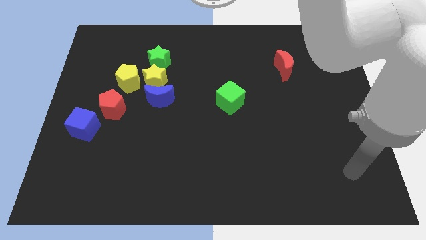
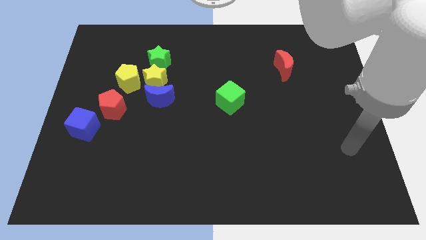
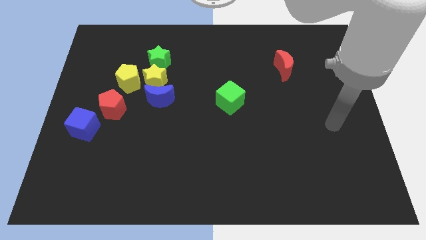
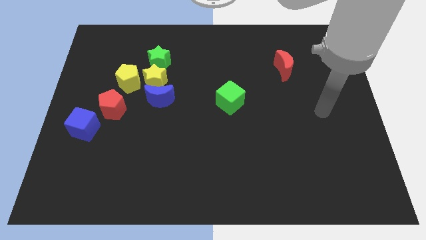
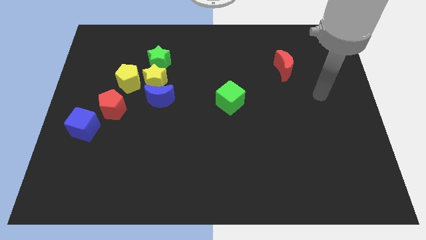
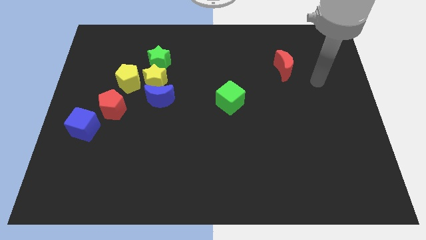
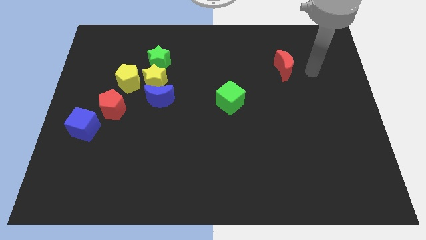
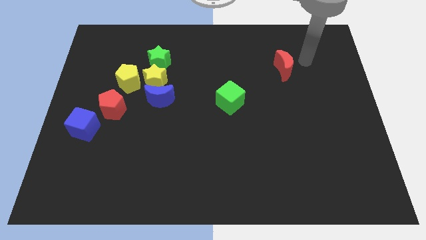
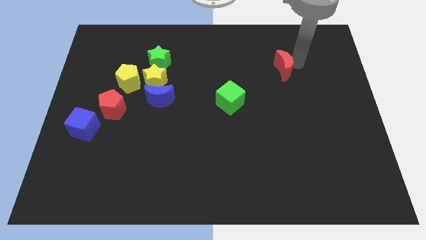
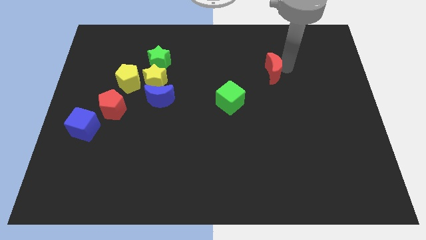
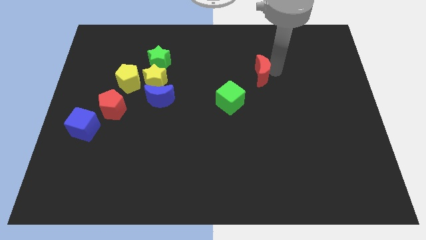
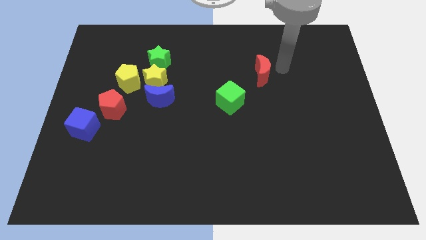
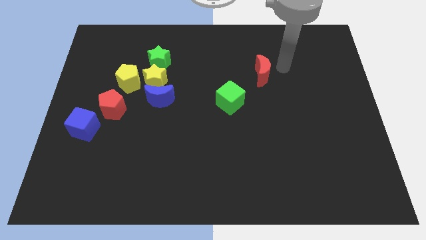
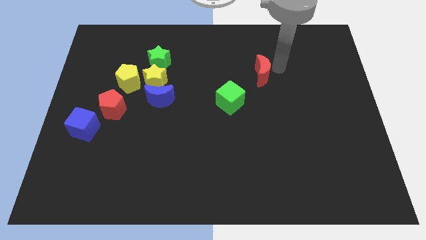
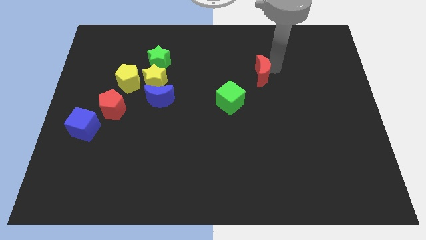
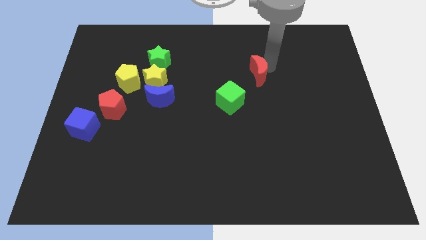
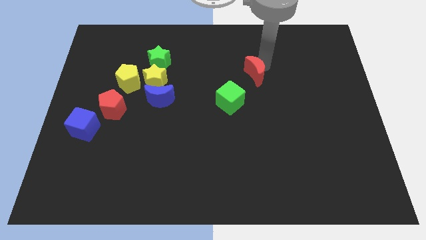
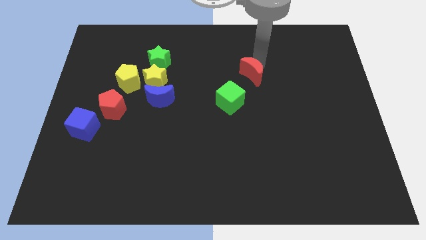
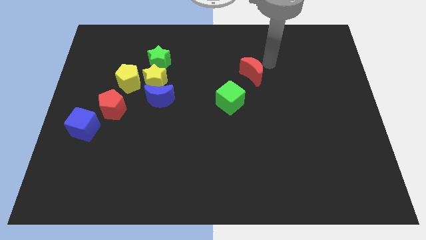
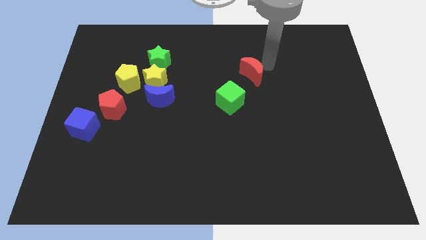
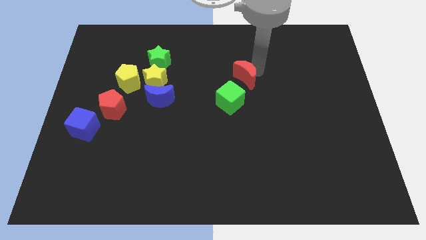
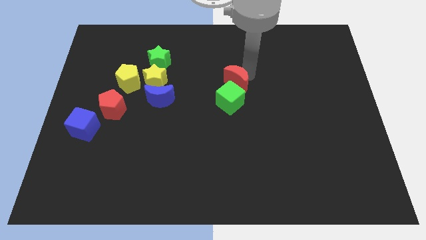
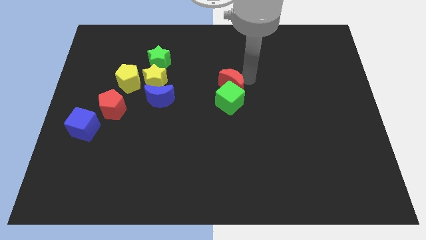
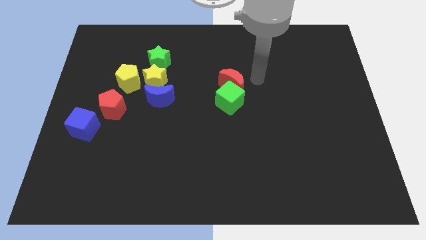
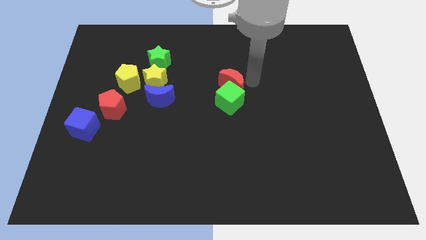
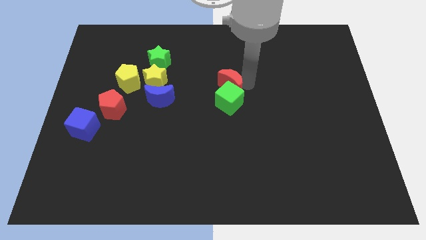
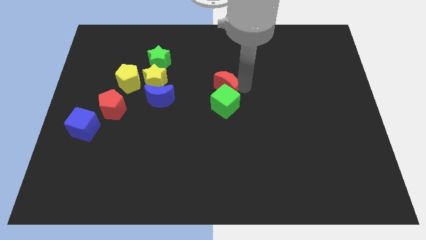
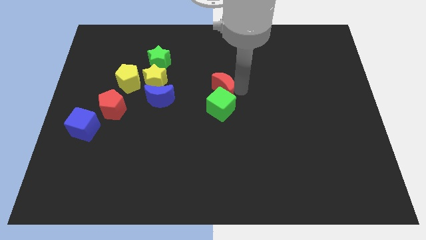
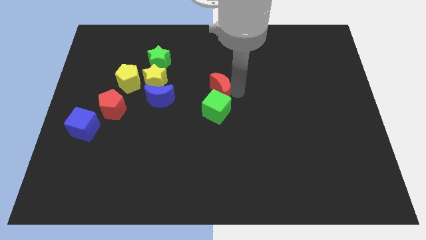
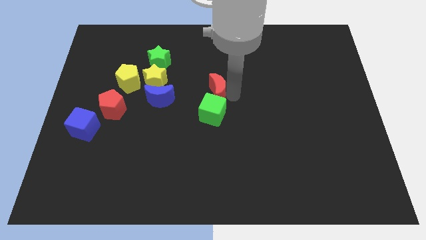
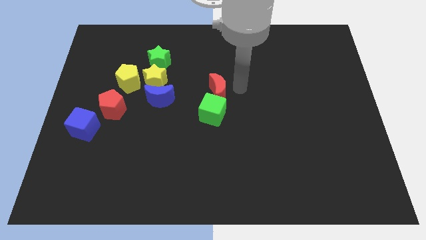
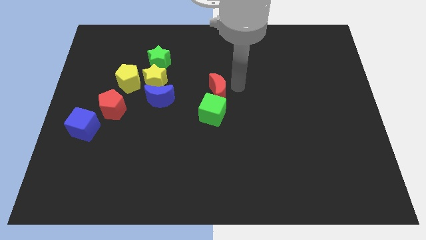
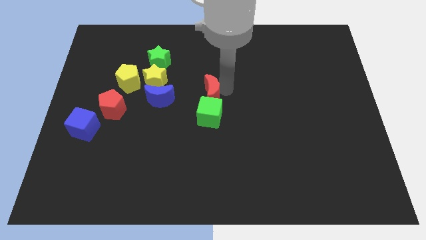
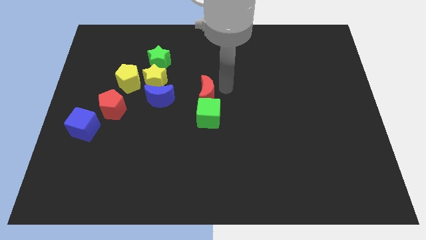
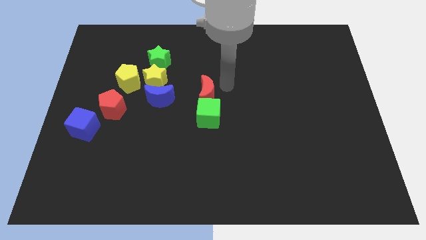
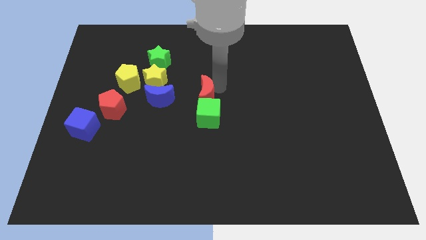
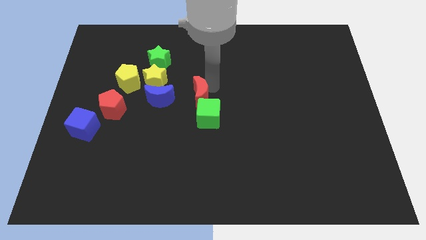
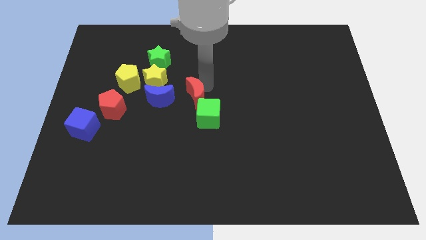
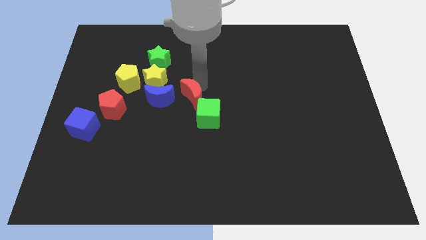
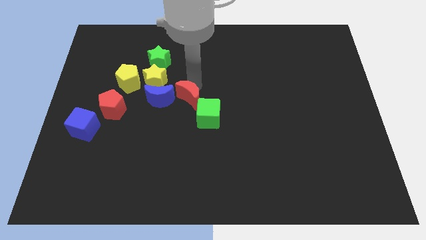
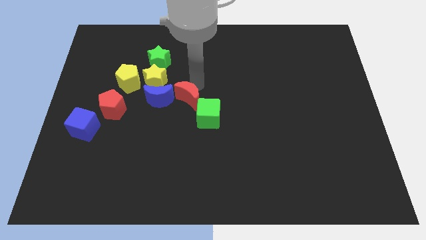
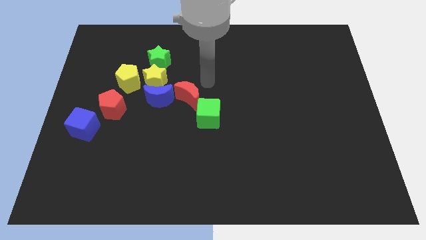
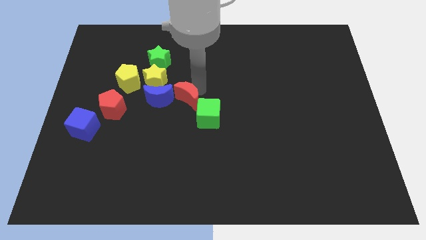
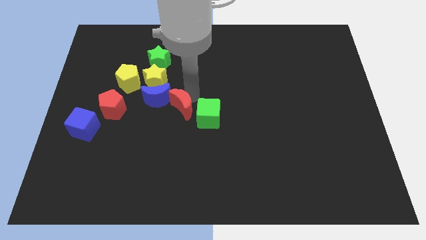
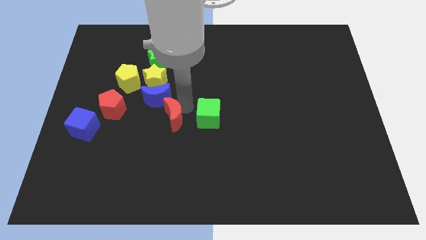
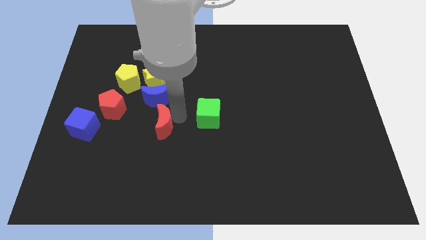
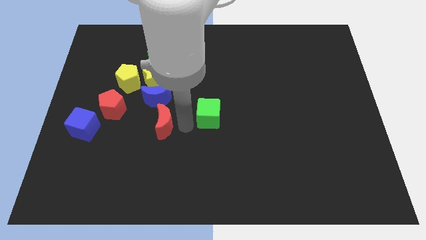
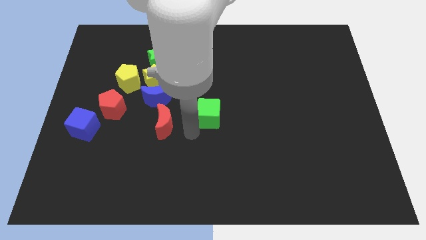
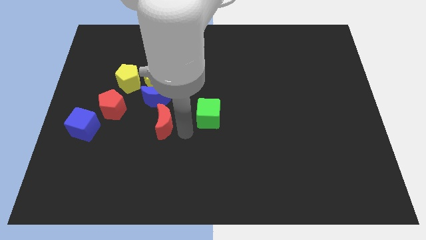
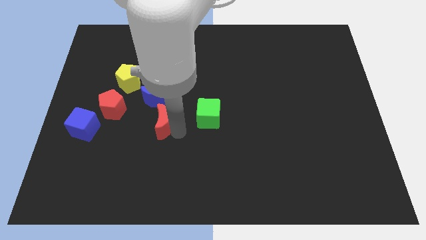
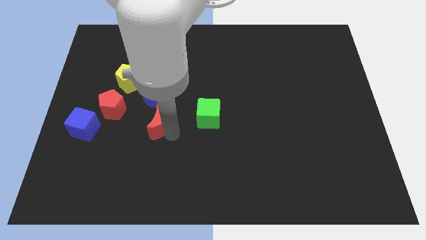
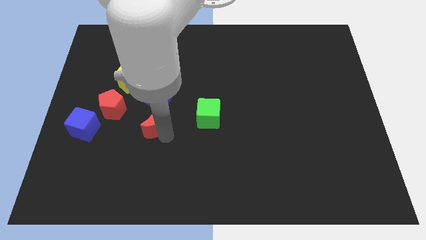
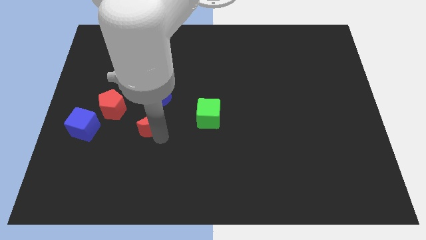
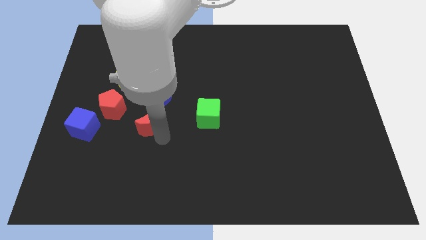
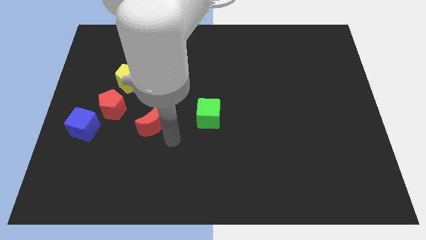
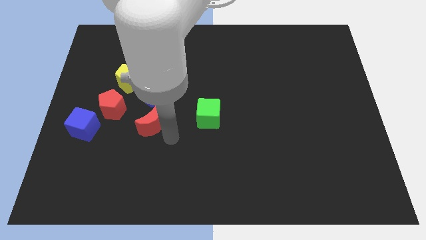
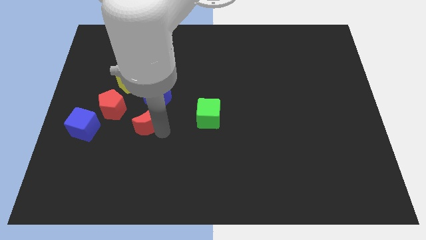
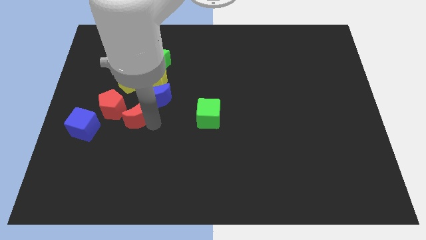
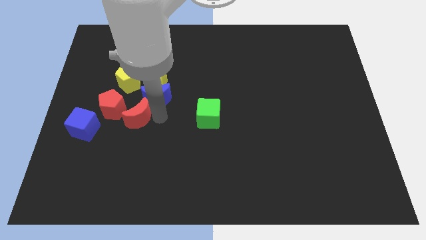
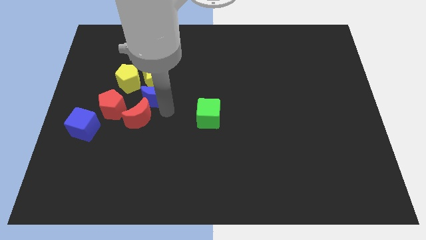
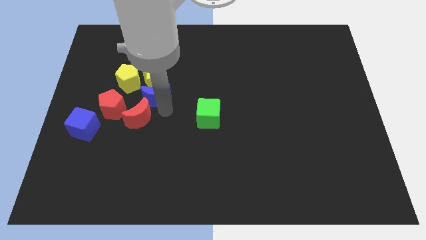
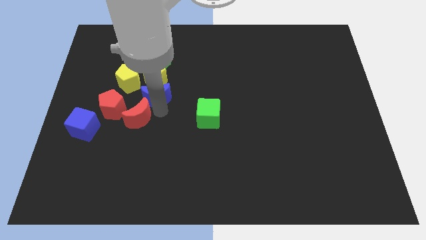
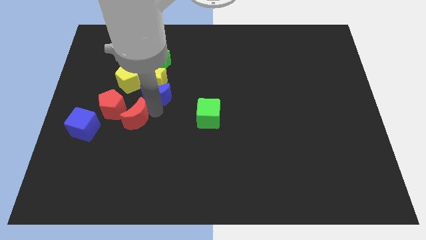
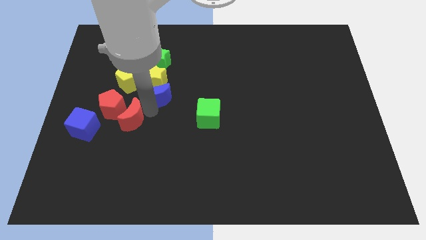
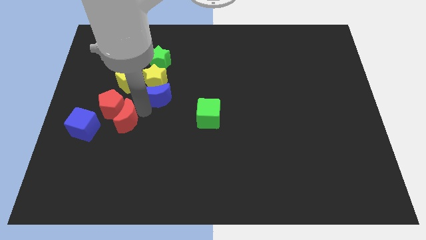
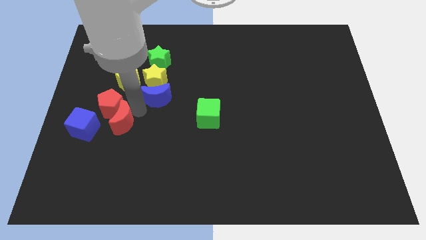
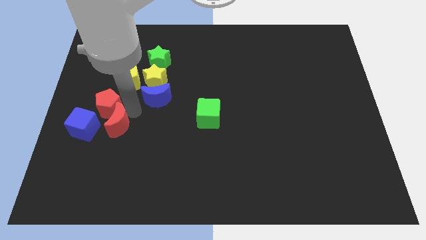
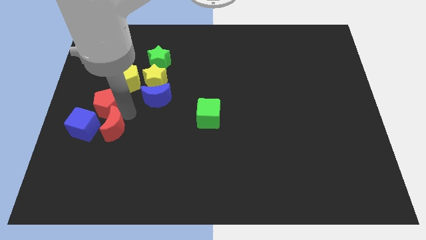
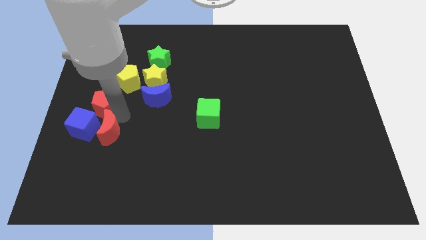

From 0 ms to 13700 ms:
slide the red moon towards the blue cube

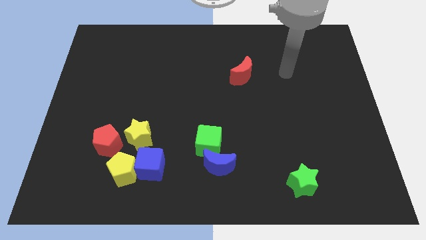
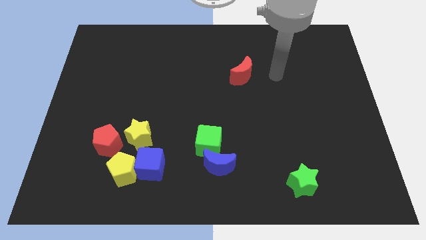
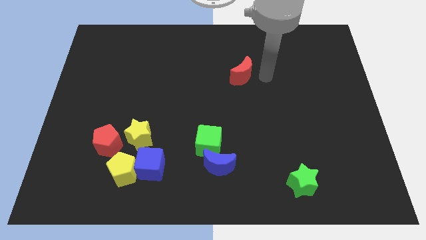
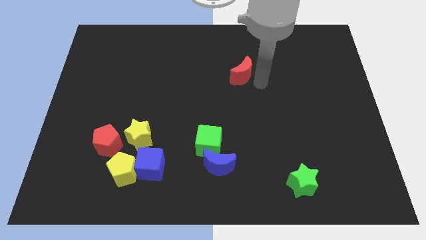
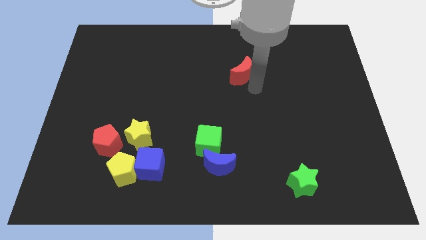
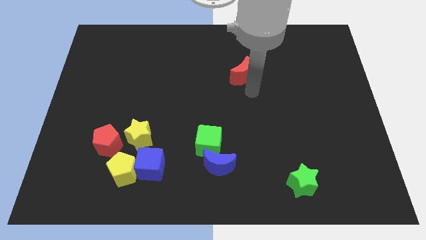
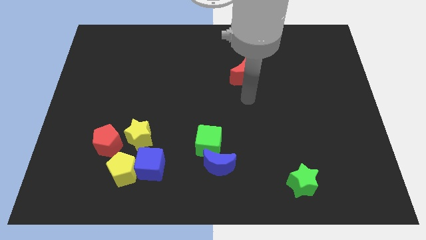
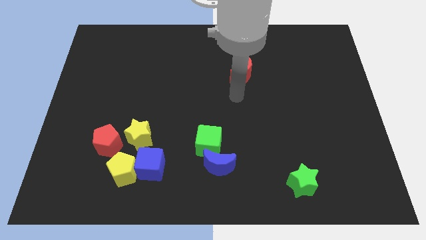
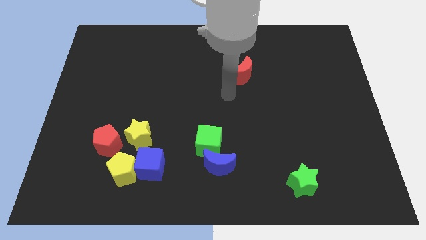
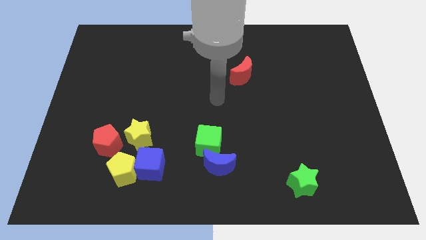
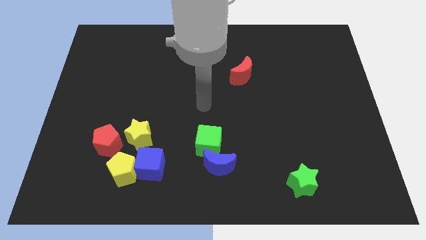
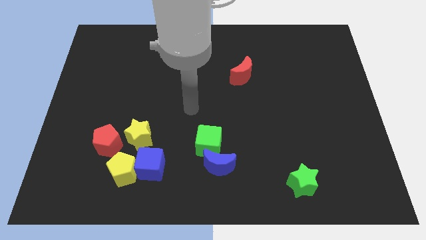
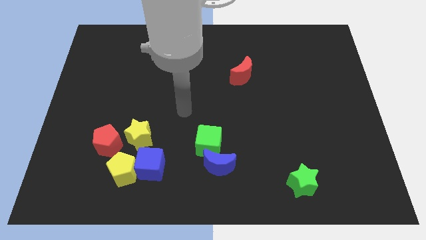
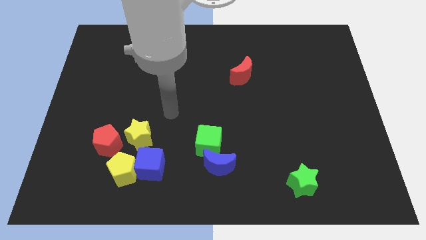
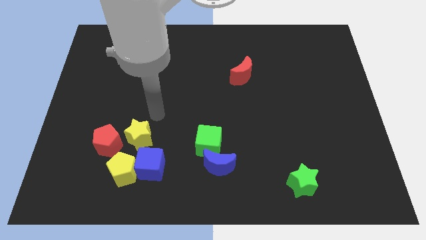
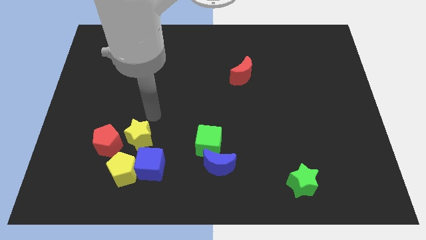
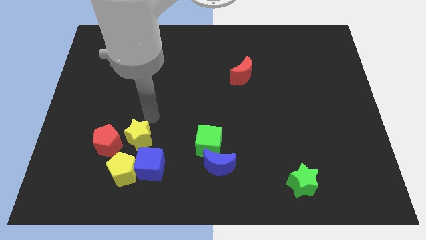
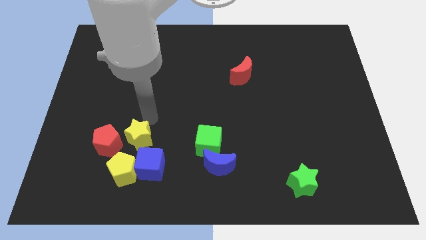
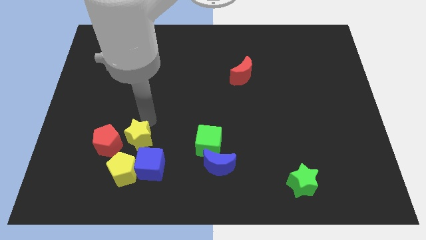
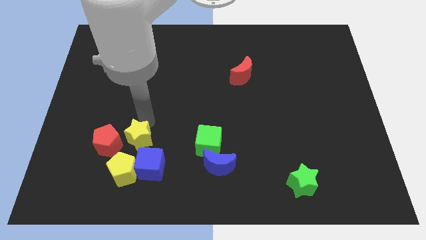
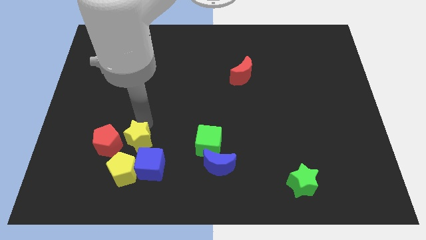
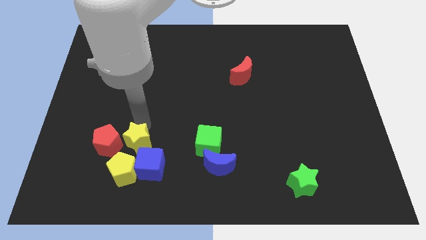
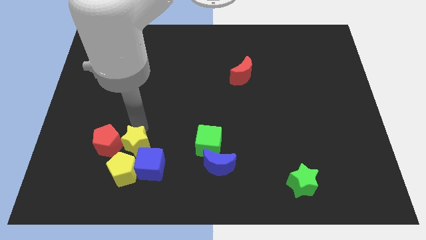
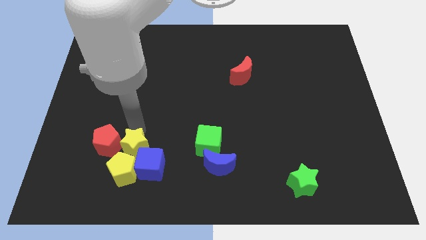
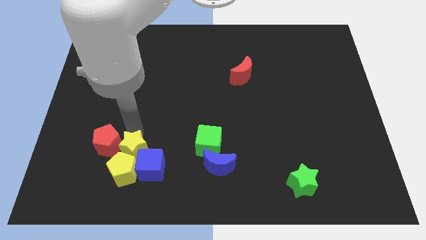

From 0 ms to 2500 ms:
slide the yellow star close to the yellow pentagon
